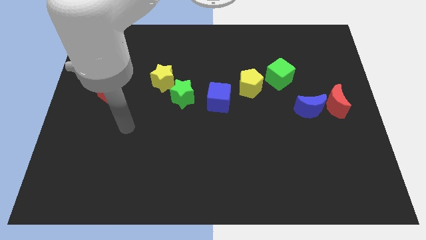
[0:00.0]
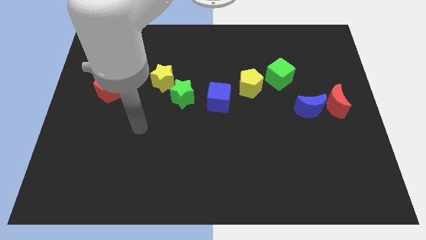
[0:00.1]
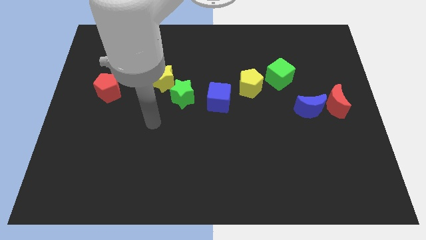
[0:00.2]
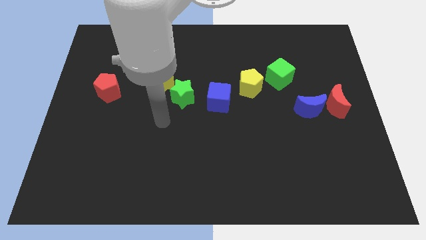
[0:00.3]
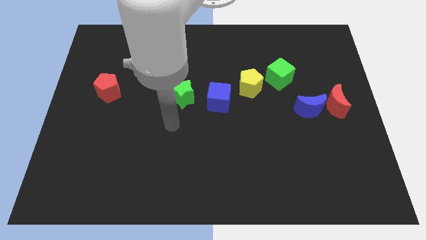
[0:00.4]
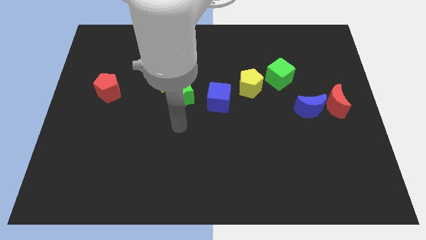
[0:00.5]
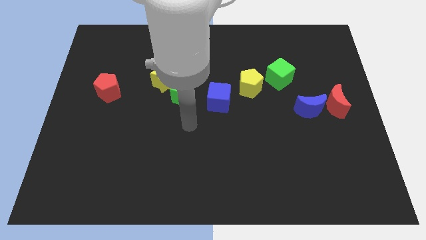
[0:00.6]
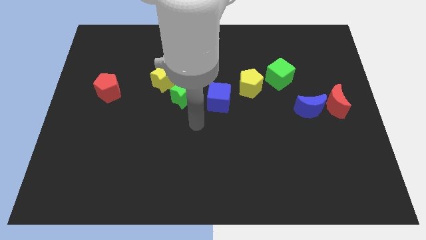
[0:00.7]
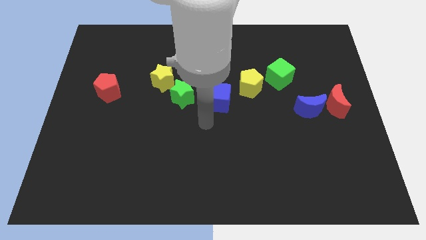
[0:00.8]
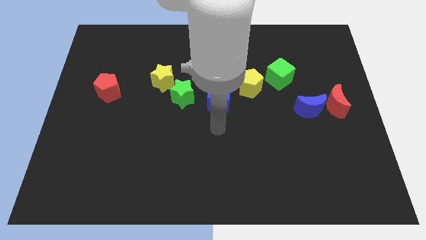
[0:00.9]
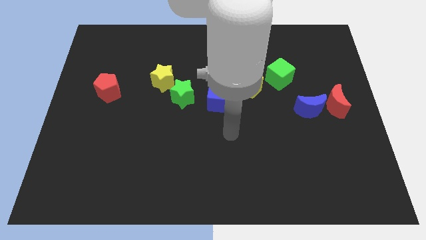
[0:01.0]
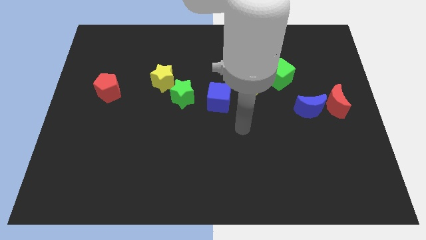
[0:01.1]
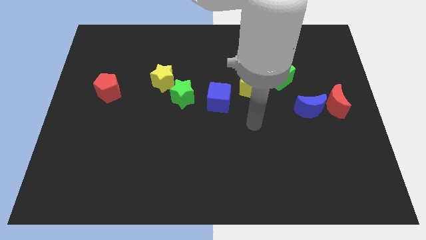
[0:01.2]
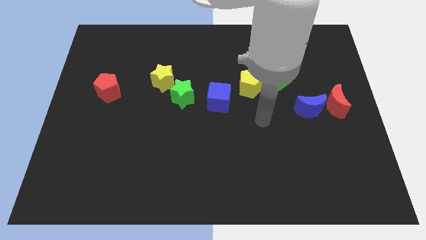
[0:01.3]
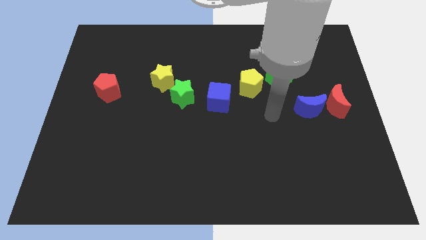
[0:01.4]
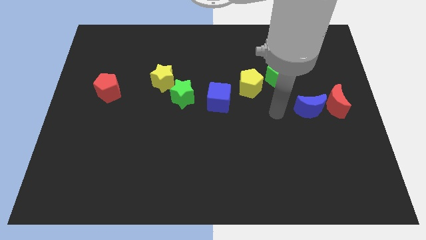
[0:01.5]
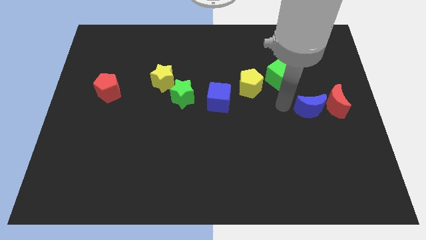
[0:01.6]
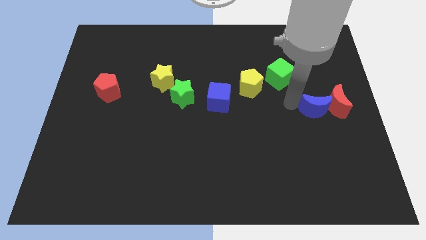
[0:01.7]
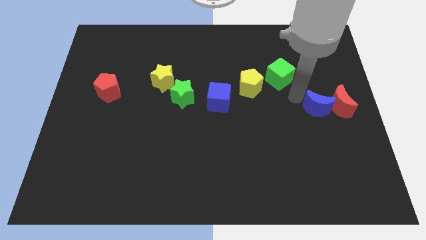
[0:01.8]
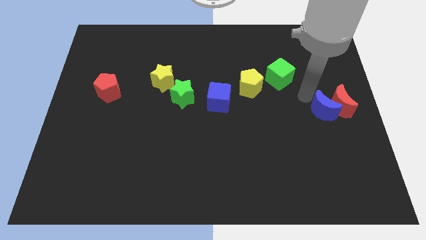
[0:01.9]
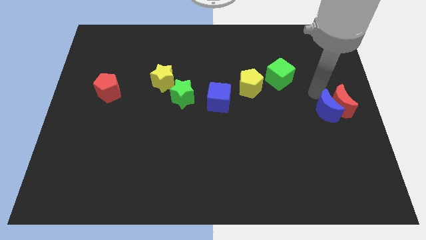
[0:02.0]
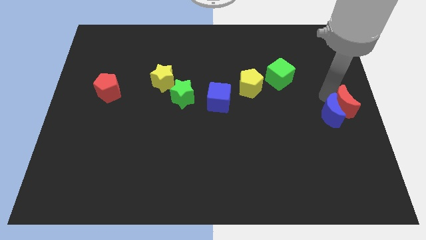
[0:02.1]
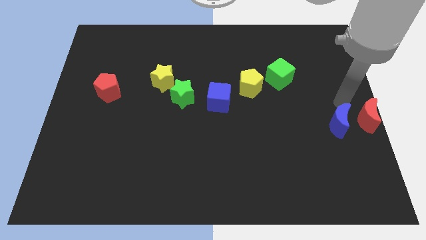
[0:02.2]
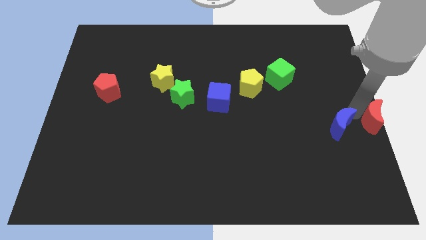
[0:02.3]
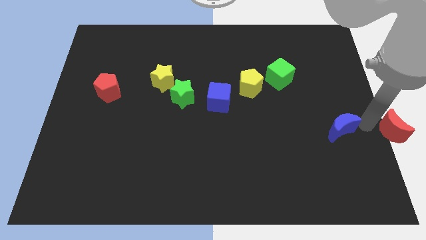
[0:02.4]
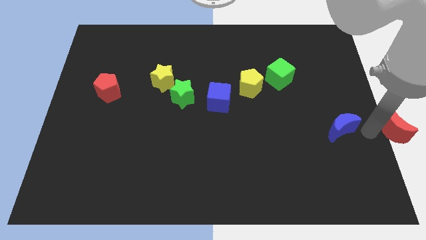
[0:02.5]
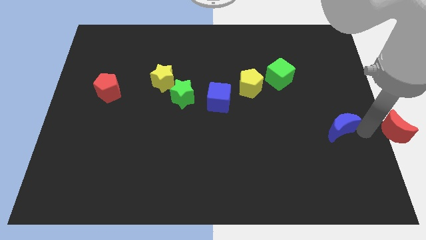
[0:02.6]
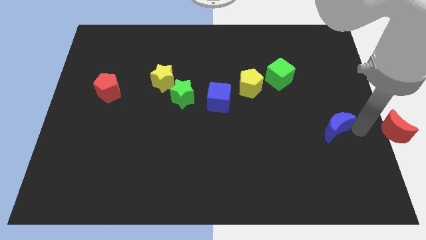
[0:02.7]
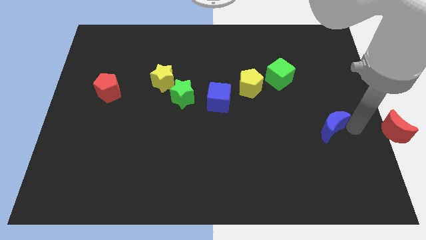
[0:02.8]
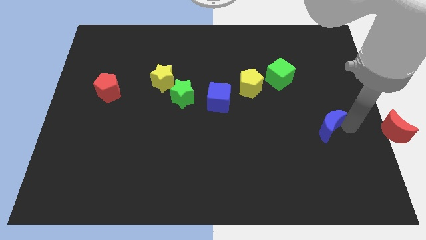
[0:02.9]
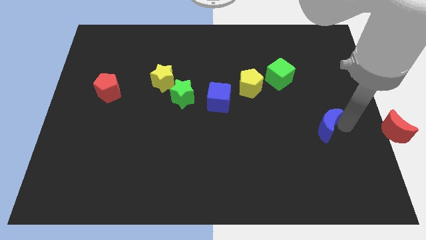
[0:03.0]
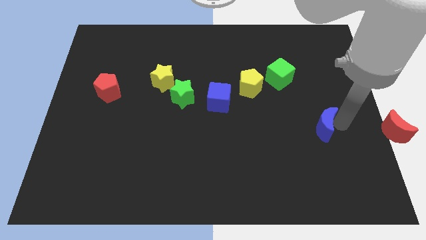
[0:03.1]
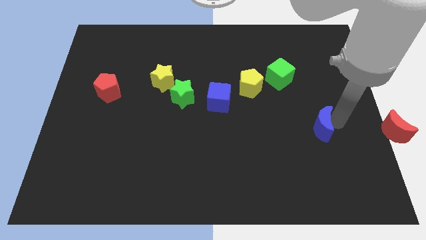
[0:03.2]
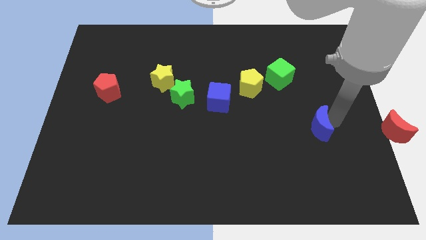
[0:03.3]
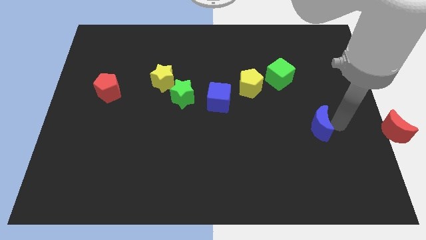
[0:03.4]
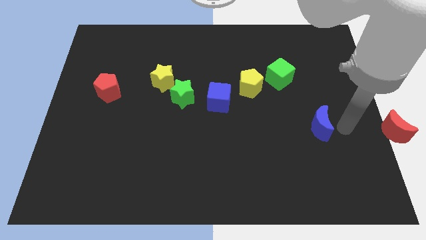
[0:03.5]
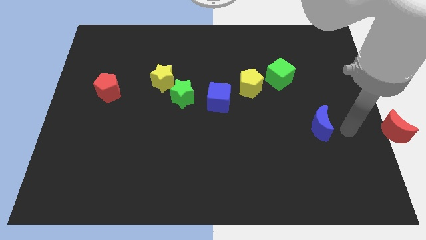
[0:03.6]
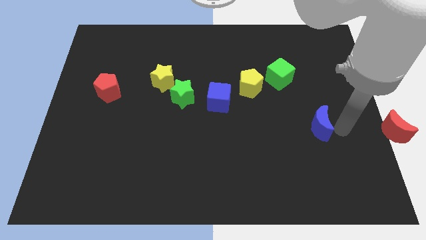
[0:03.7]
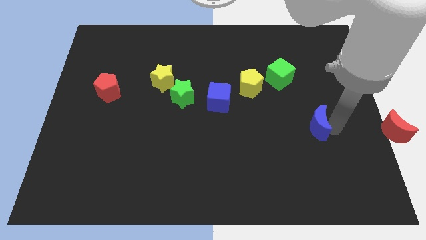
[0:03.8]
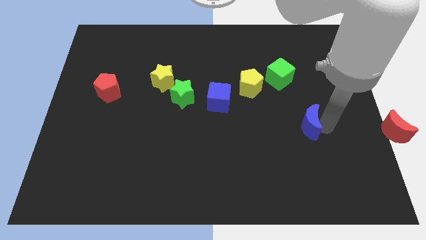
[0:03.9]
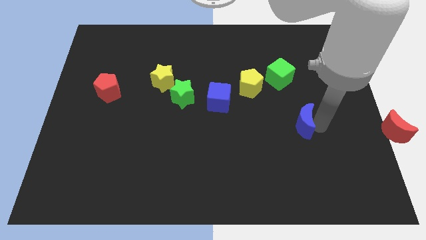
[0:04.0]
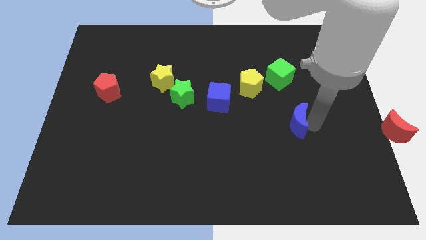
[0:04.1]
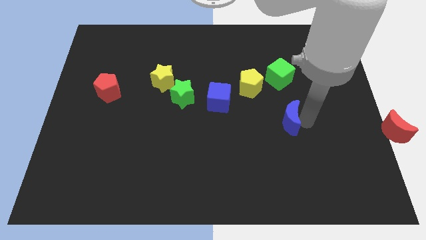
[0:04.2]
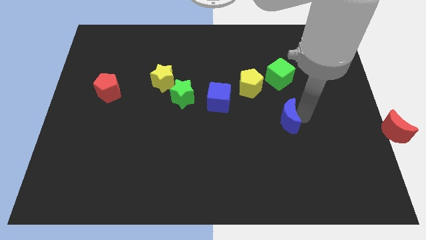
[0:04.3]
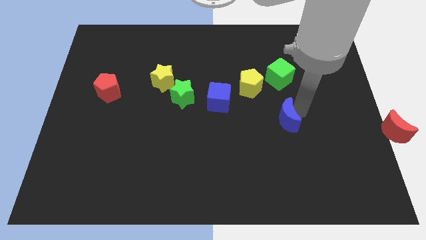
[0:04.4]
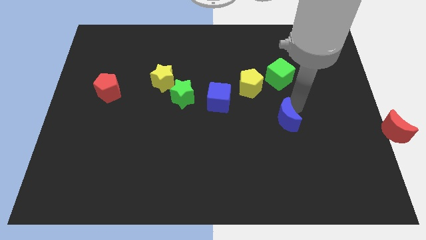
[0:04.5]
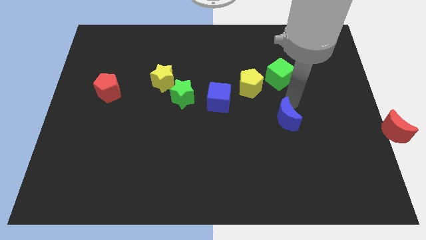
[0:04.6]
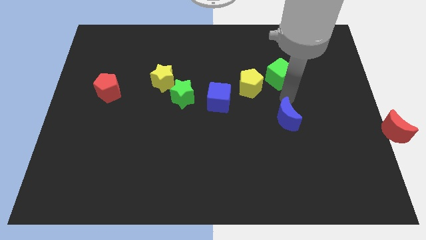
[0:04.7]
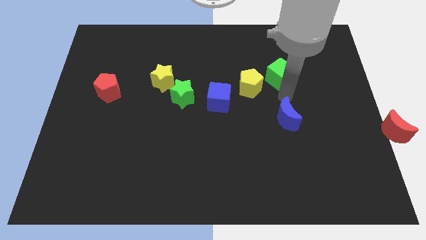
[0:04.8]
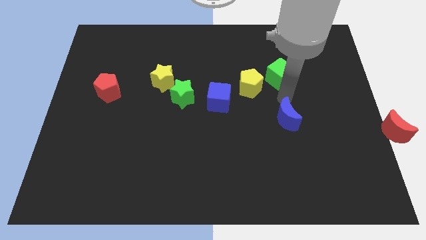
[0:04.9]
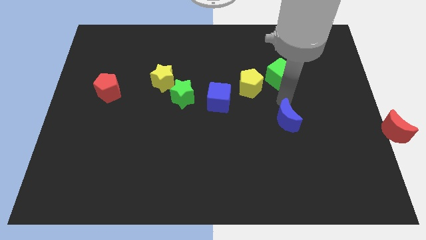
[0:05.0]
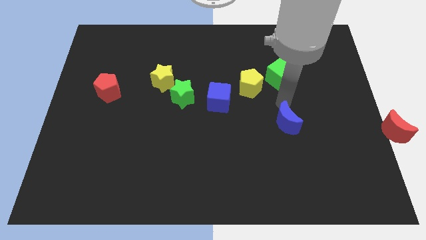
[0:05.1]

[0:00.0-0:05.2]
move the blue moon a little down and to the left diagonally

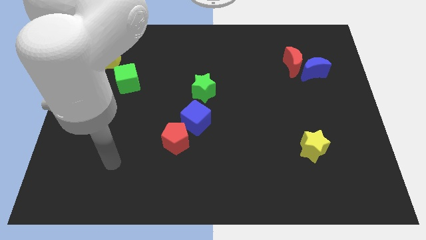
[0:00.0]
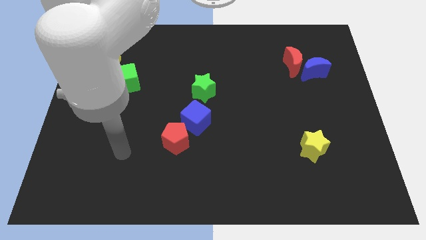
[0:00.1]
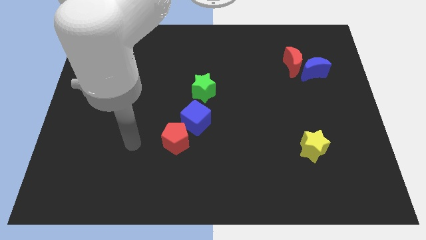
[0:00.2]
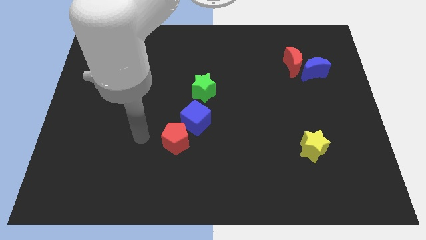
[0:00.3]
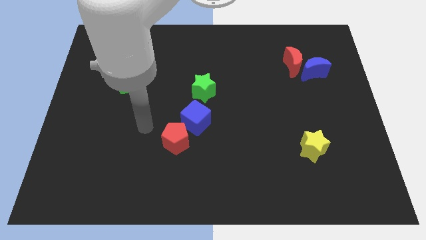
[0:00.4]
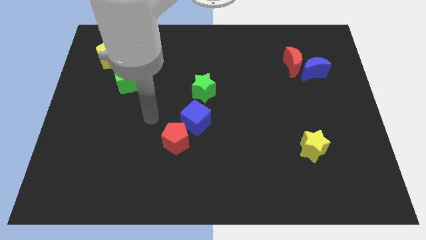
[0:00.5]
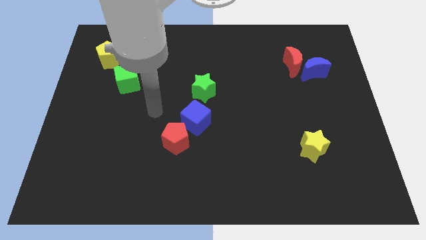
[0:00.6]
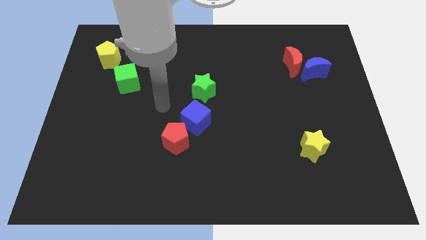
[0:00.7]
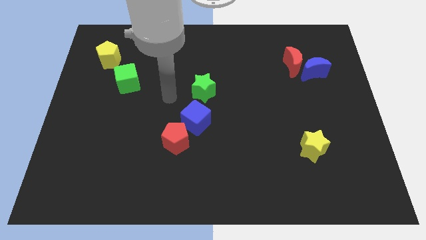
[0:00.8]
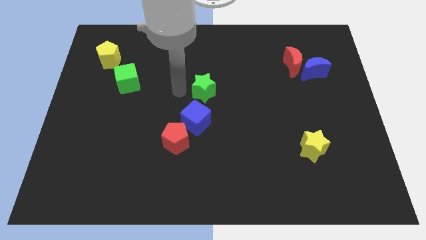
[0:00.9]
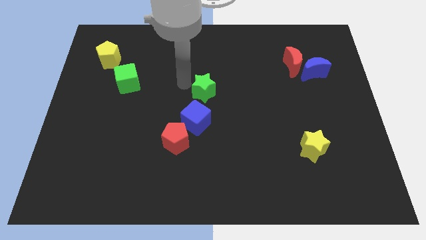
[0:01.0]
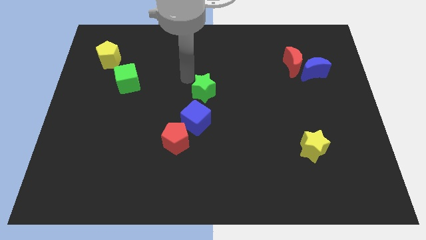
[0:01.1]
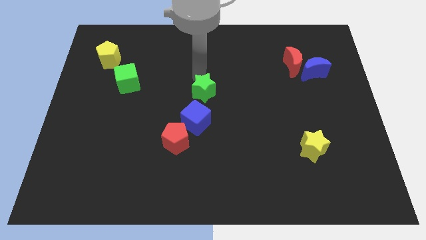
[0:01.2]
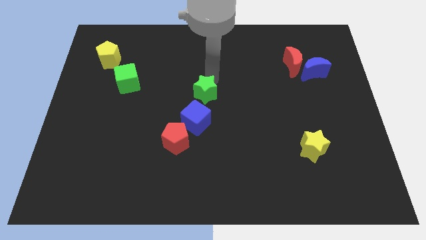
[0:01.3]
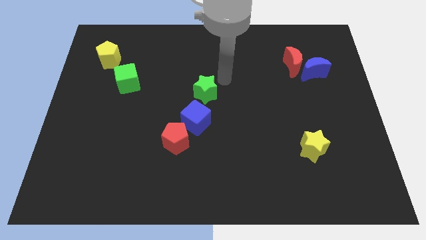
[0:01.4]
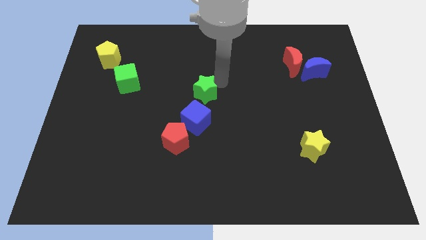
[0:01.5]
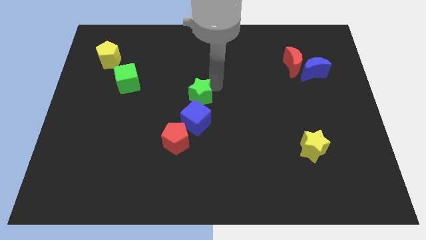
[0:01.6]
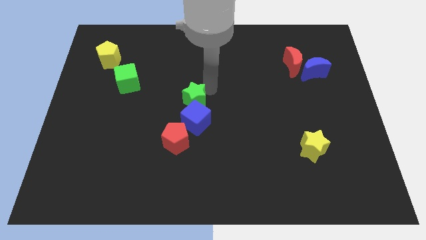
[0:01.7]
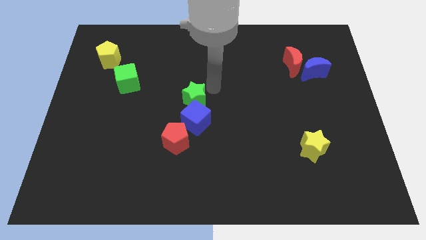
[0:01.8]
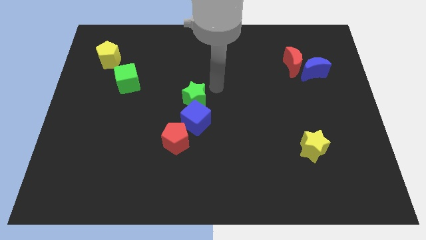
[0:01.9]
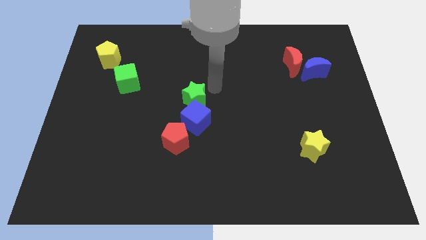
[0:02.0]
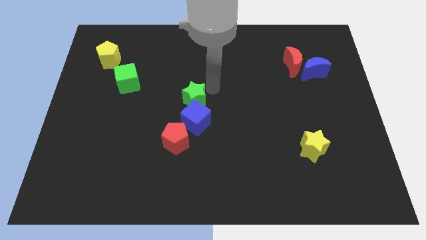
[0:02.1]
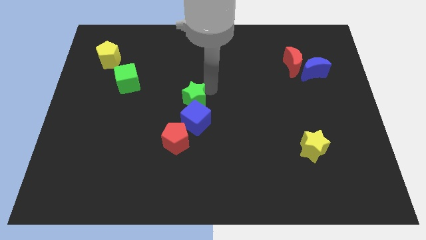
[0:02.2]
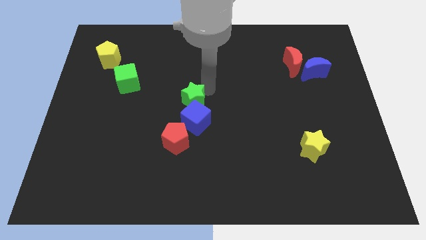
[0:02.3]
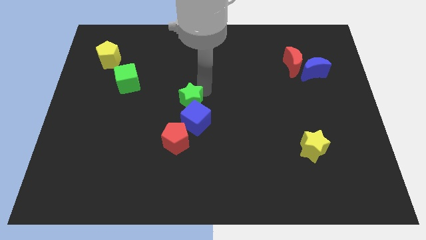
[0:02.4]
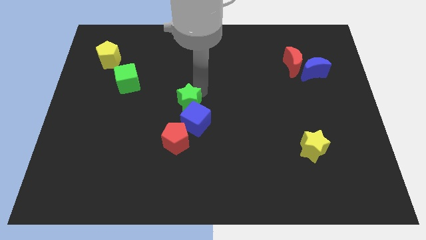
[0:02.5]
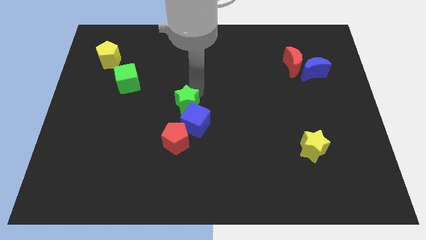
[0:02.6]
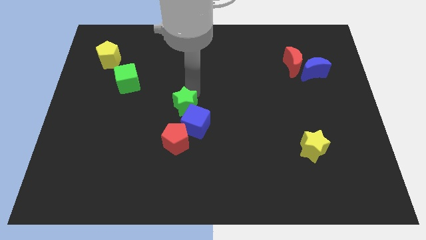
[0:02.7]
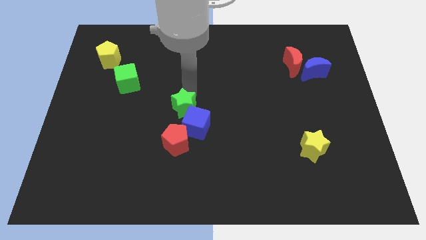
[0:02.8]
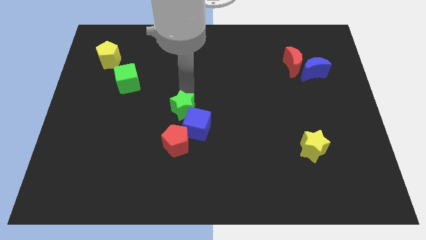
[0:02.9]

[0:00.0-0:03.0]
push the green star downwards and then left a little bit
